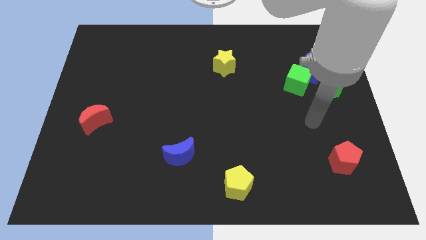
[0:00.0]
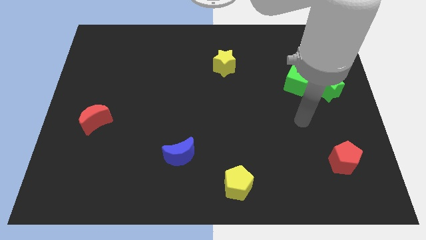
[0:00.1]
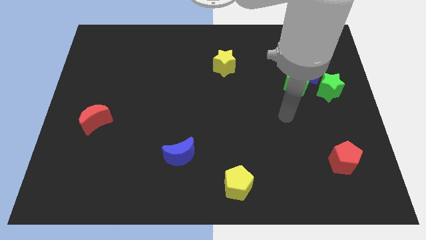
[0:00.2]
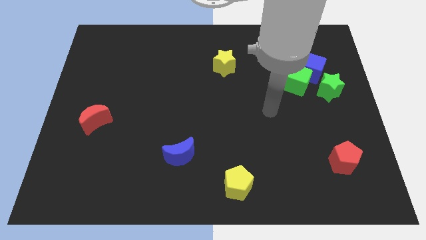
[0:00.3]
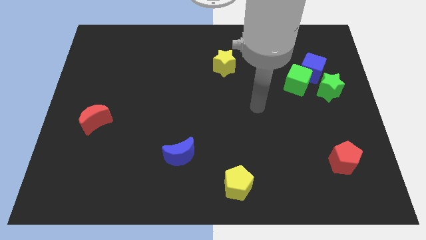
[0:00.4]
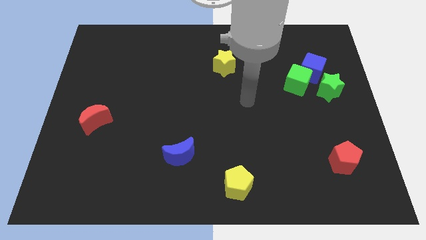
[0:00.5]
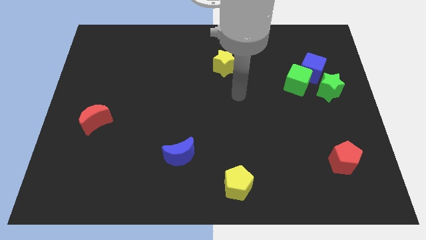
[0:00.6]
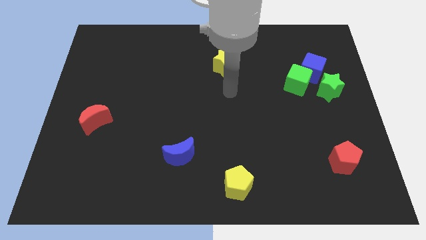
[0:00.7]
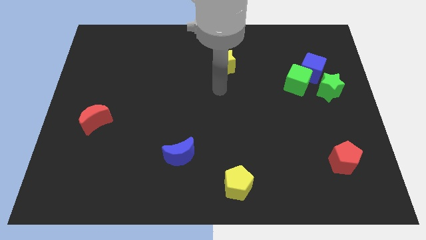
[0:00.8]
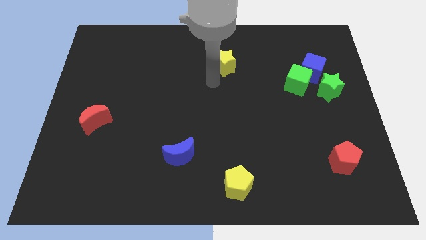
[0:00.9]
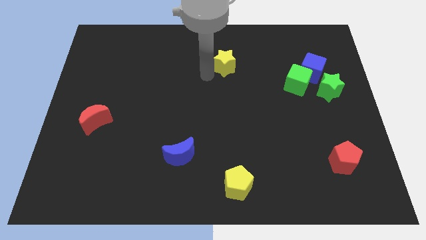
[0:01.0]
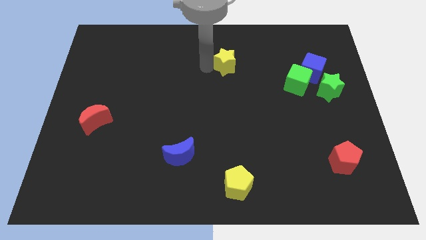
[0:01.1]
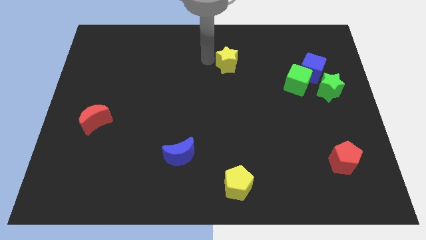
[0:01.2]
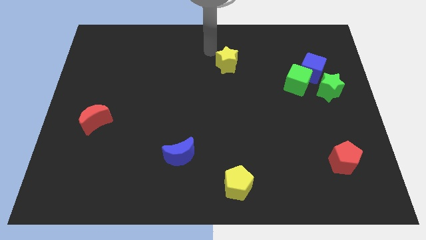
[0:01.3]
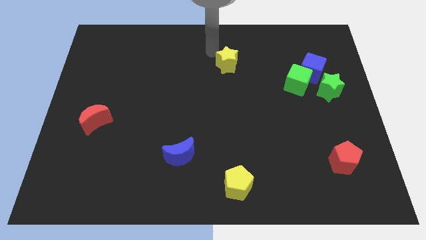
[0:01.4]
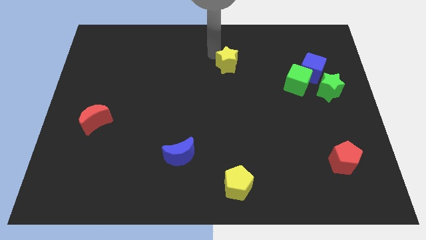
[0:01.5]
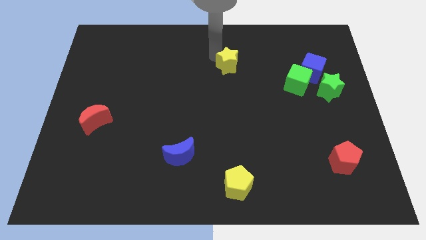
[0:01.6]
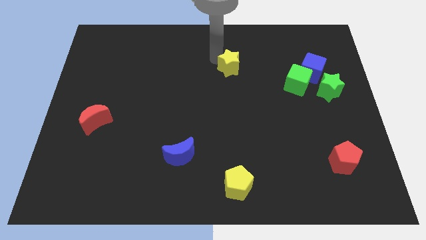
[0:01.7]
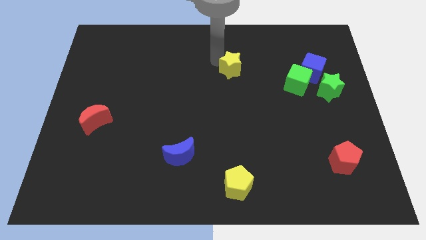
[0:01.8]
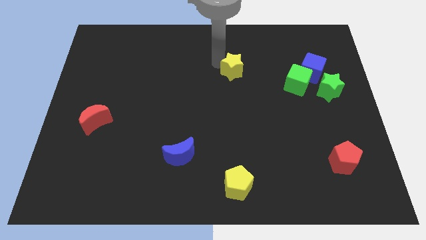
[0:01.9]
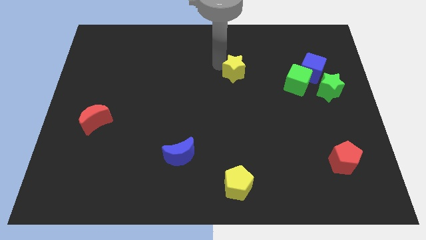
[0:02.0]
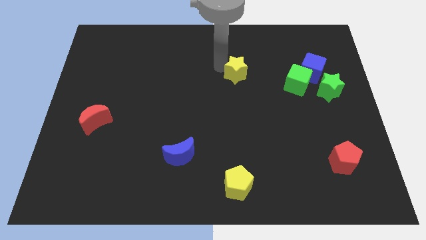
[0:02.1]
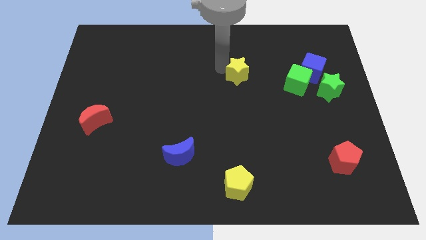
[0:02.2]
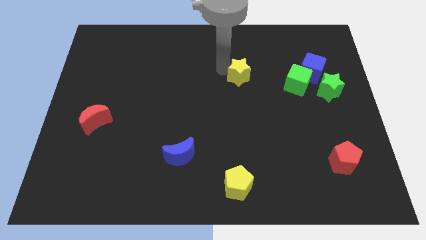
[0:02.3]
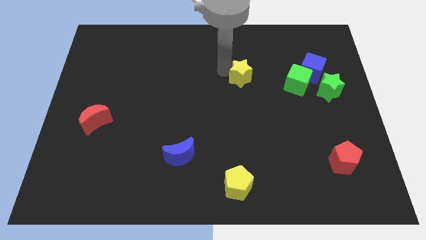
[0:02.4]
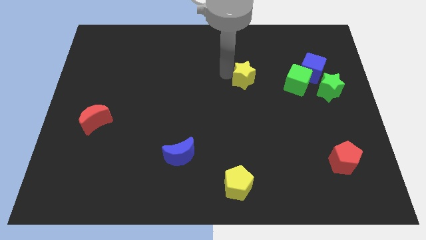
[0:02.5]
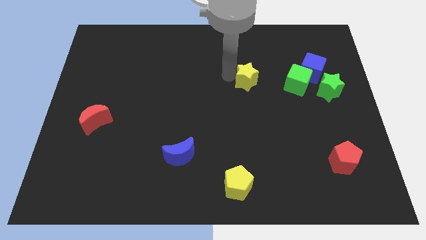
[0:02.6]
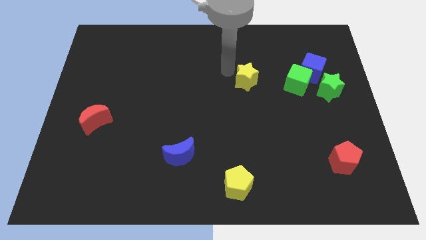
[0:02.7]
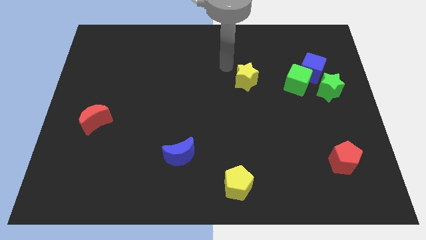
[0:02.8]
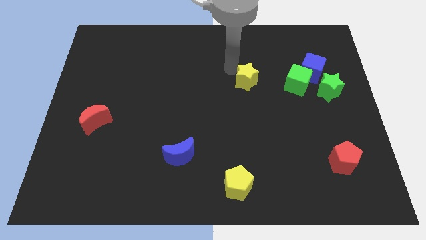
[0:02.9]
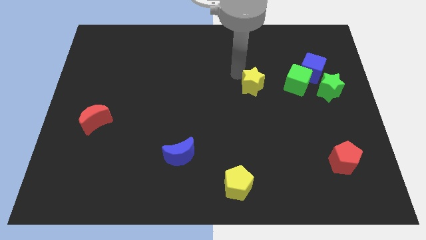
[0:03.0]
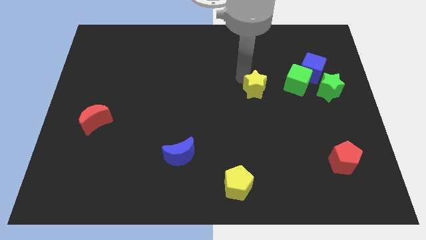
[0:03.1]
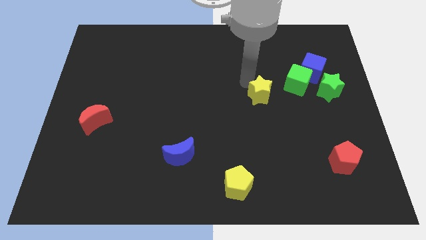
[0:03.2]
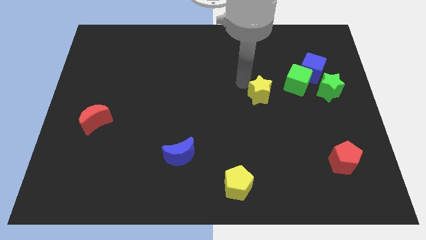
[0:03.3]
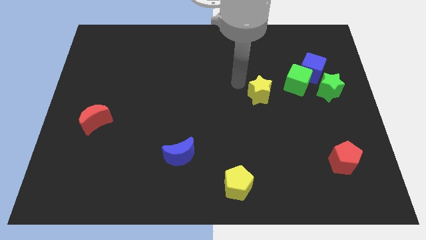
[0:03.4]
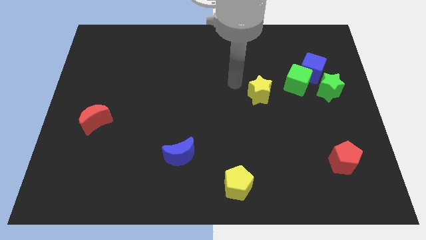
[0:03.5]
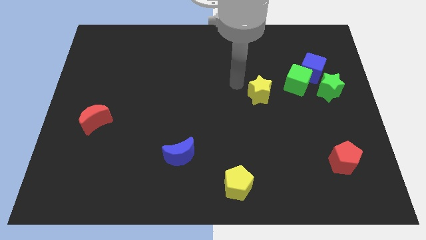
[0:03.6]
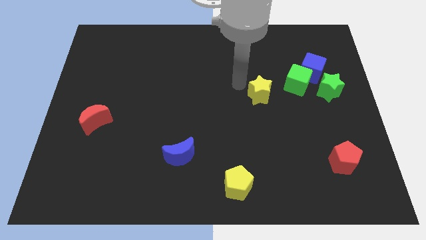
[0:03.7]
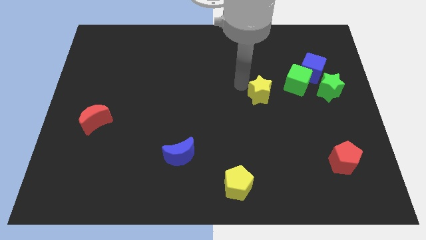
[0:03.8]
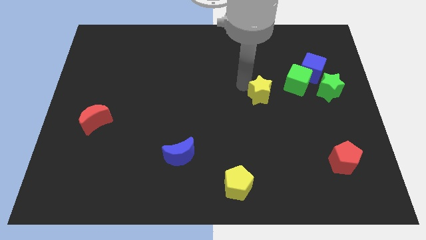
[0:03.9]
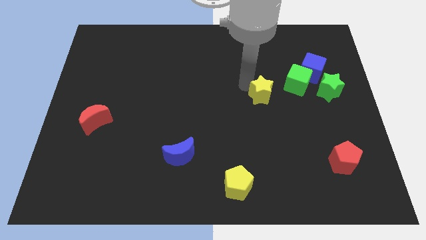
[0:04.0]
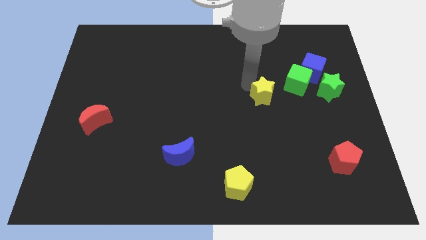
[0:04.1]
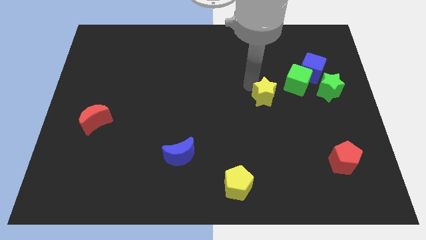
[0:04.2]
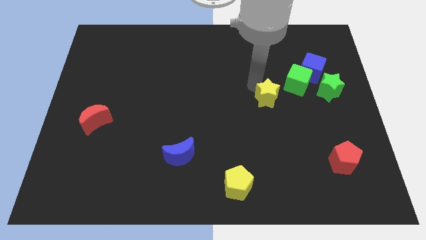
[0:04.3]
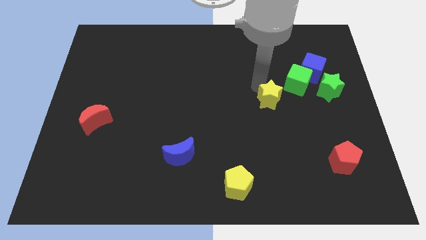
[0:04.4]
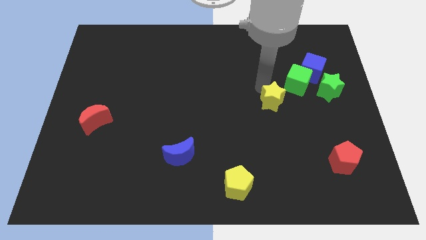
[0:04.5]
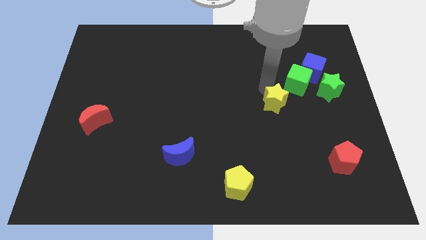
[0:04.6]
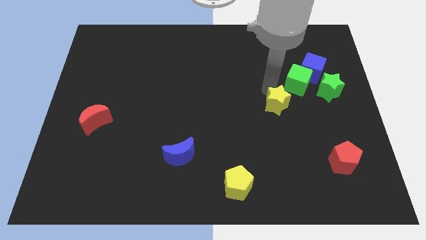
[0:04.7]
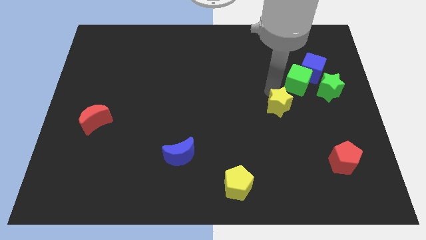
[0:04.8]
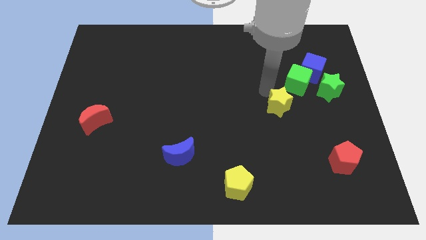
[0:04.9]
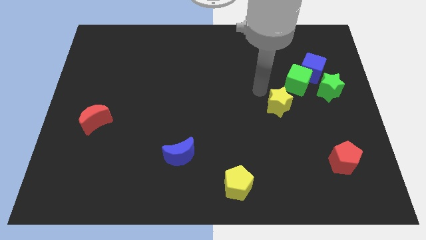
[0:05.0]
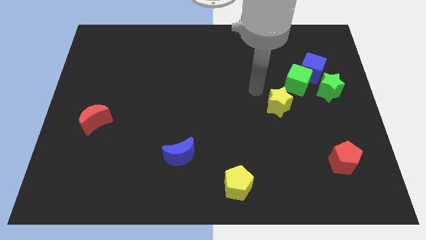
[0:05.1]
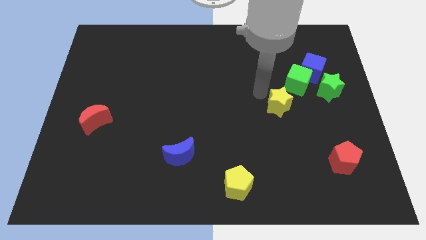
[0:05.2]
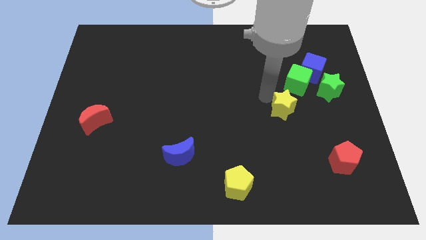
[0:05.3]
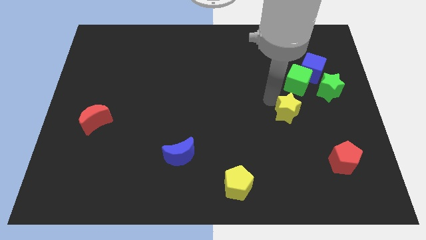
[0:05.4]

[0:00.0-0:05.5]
move the yellow star downwards and right diagonally

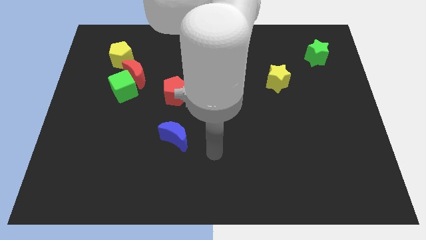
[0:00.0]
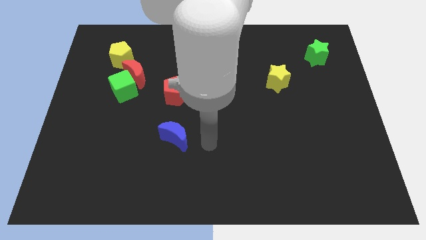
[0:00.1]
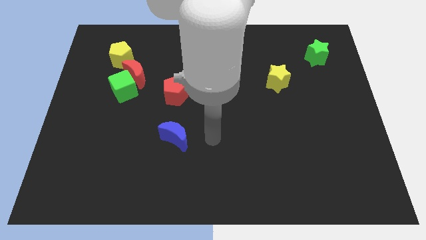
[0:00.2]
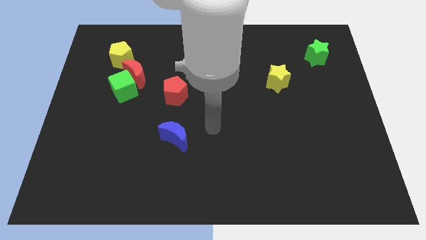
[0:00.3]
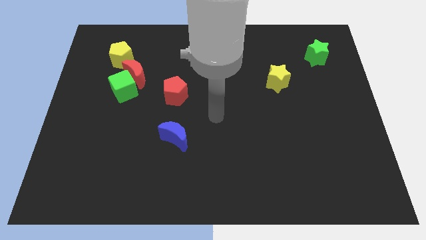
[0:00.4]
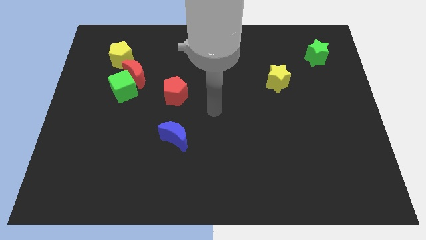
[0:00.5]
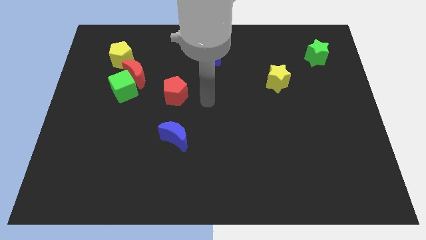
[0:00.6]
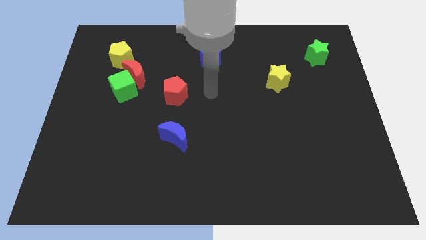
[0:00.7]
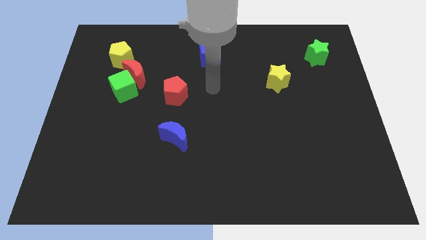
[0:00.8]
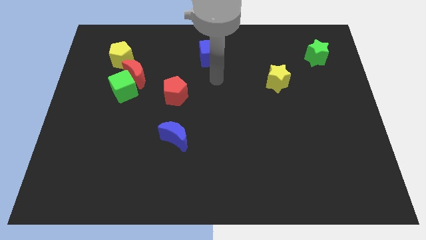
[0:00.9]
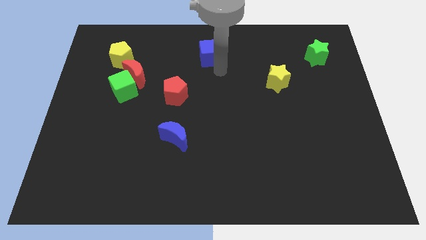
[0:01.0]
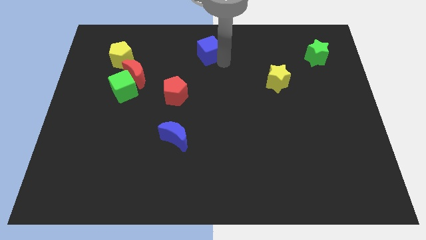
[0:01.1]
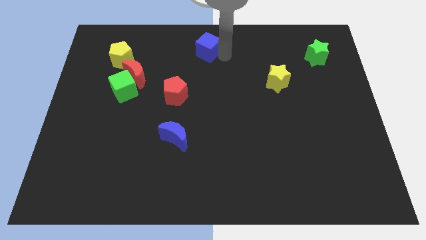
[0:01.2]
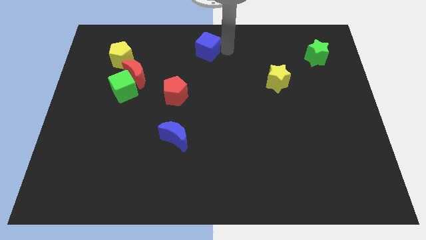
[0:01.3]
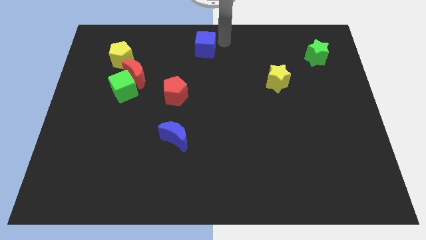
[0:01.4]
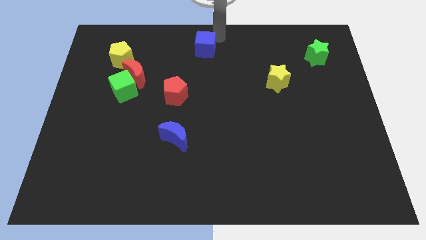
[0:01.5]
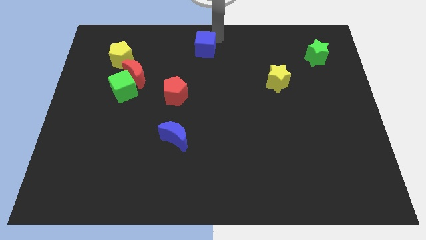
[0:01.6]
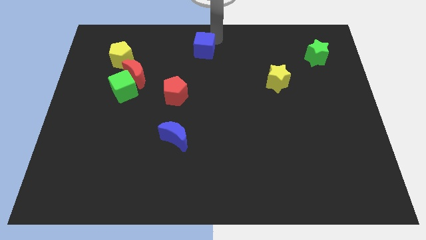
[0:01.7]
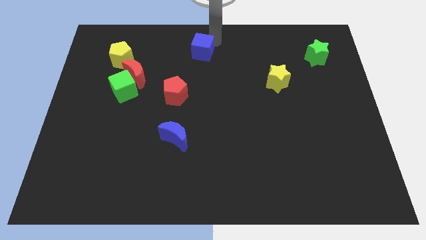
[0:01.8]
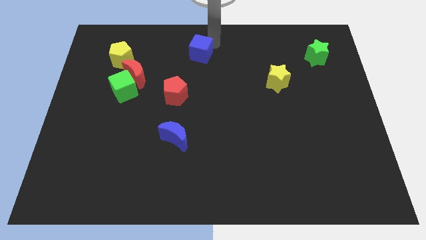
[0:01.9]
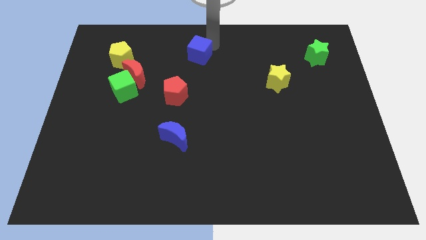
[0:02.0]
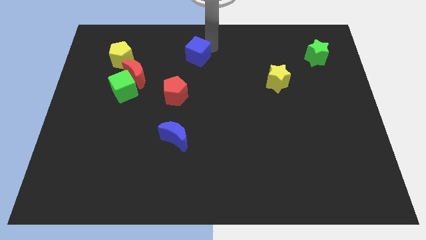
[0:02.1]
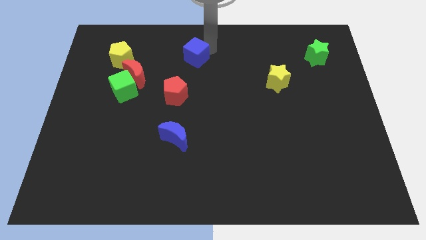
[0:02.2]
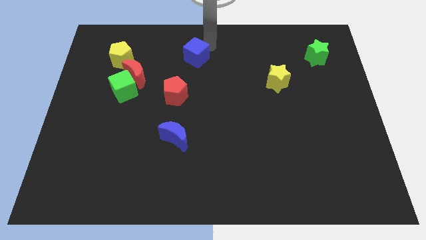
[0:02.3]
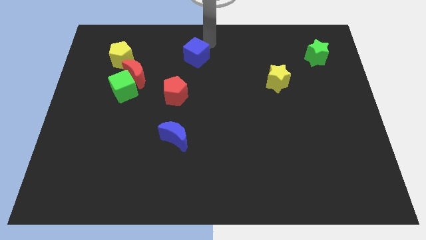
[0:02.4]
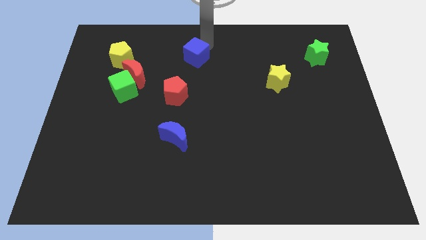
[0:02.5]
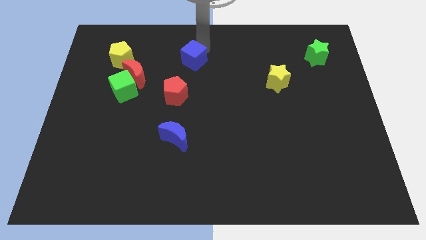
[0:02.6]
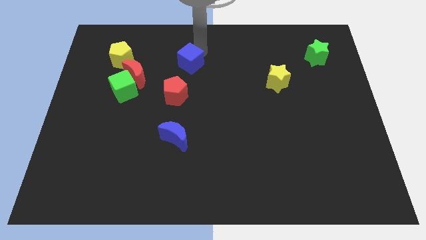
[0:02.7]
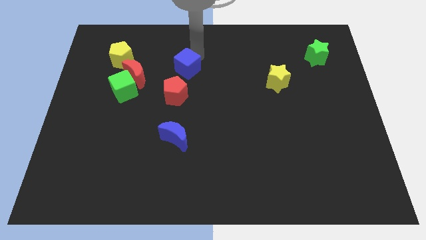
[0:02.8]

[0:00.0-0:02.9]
move the blue cube a bit downwards and to the left diagonally

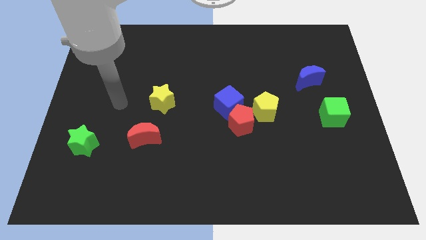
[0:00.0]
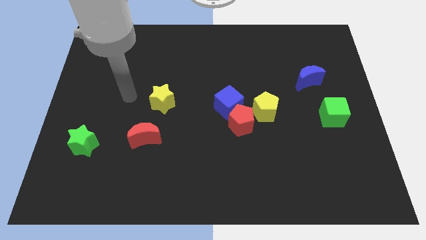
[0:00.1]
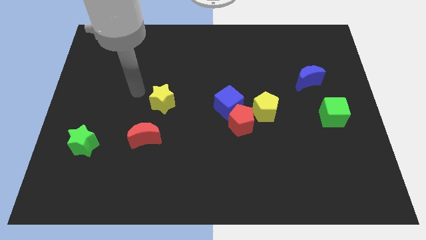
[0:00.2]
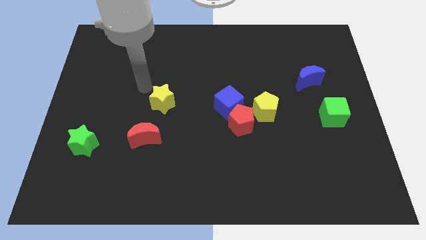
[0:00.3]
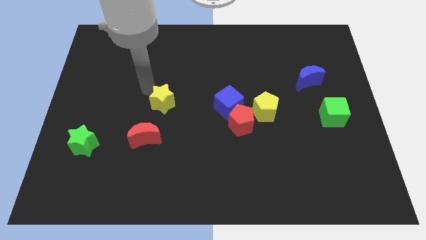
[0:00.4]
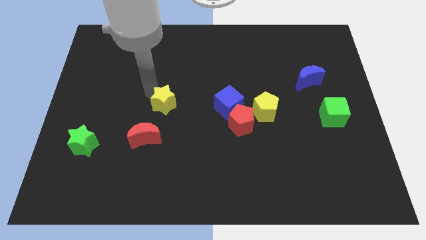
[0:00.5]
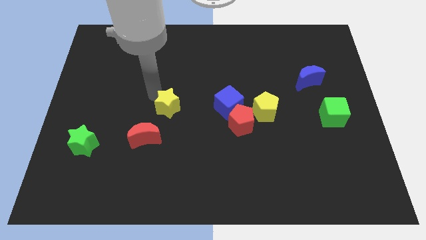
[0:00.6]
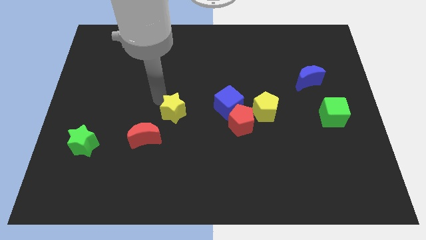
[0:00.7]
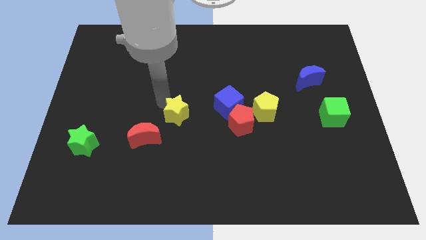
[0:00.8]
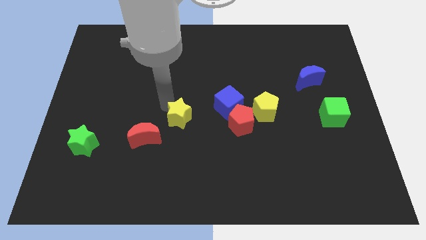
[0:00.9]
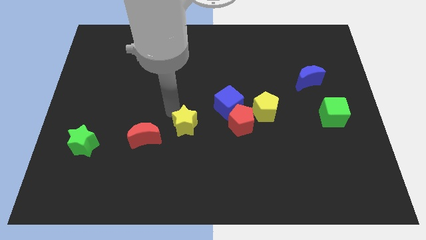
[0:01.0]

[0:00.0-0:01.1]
move the yellow star diagonally downwards and to the right somewhat
